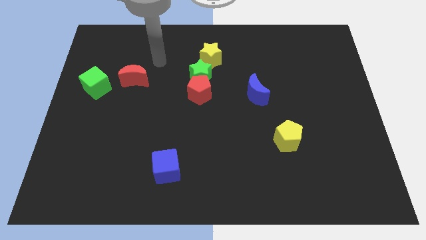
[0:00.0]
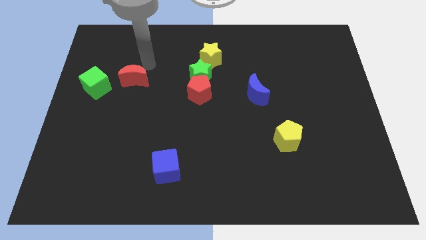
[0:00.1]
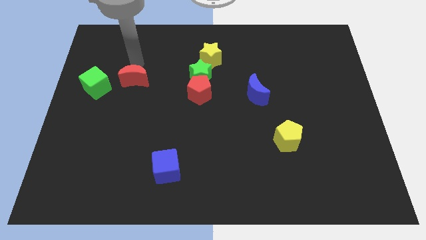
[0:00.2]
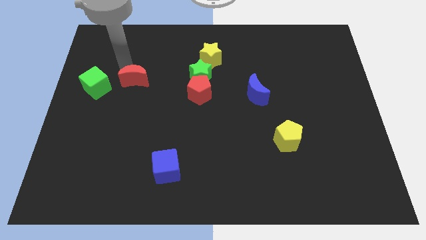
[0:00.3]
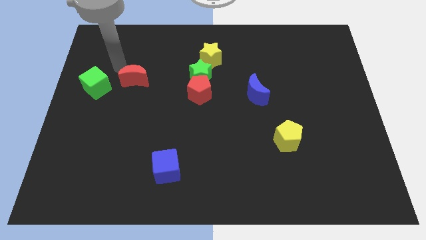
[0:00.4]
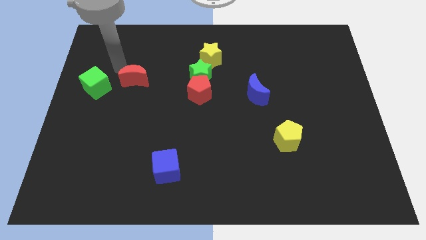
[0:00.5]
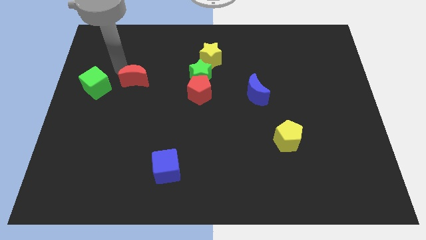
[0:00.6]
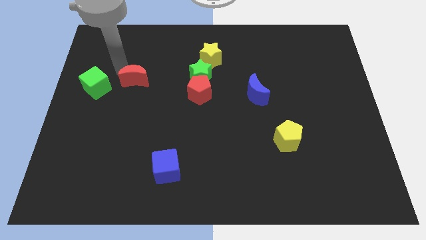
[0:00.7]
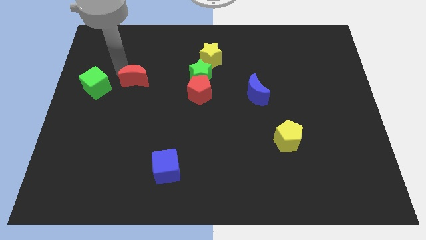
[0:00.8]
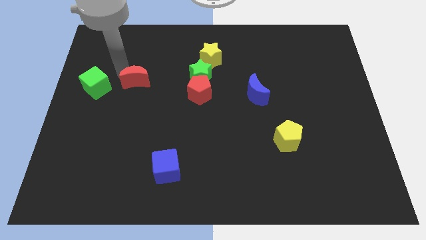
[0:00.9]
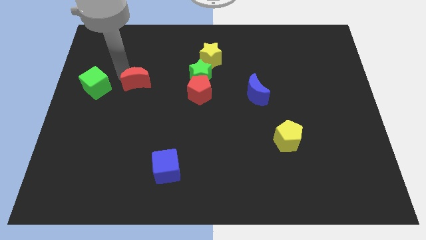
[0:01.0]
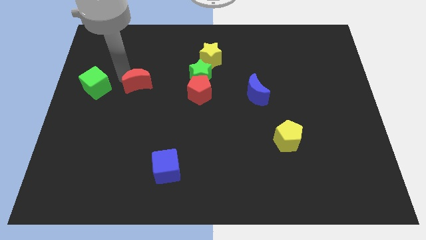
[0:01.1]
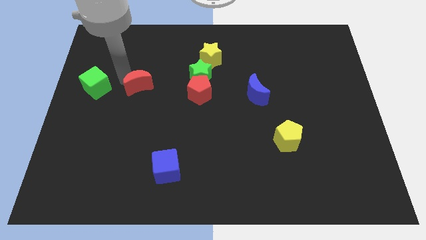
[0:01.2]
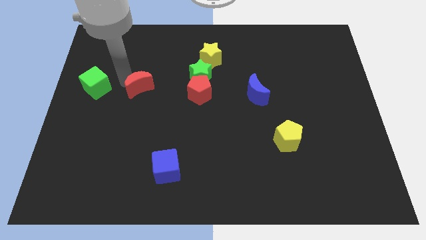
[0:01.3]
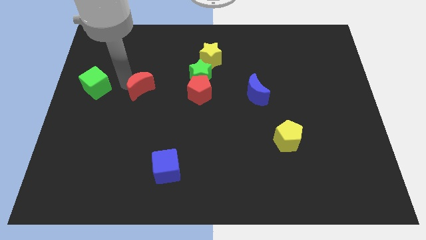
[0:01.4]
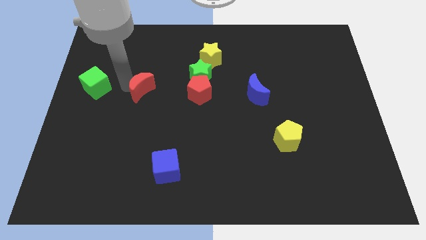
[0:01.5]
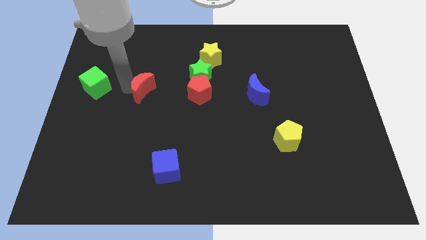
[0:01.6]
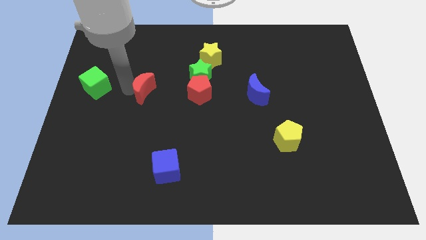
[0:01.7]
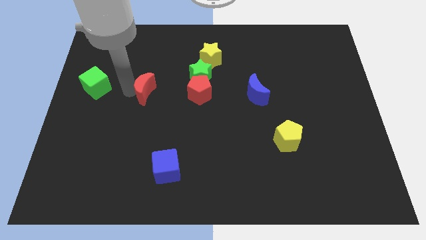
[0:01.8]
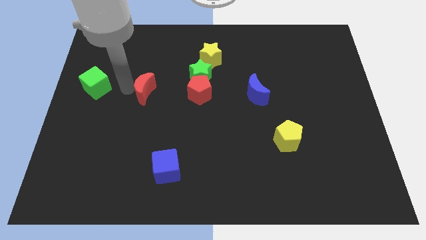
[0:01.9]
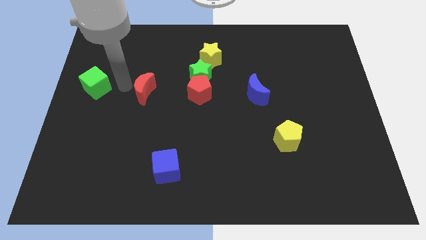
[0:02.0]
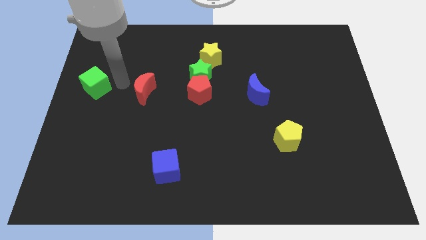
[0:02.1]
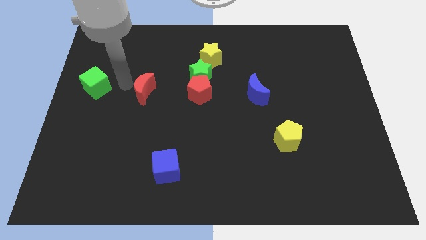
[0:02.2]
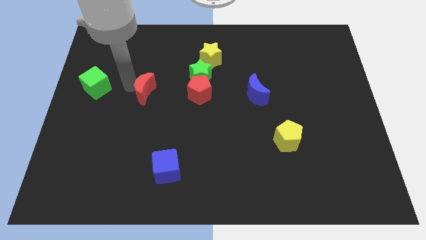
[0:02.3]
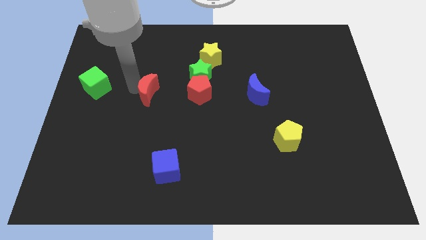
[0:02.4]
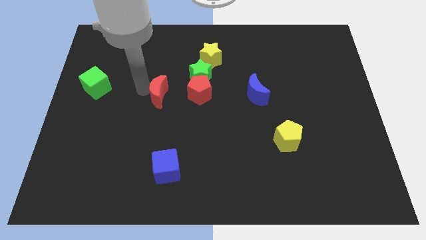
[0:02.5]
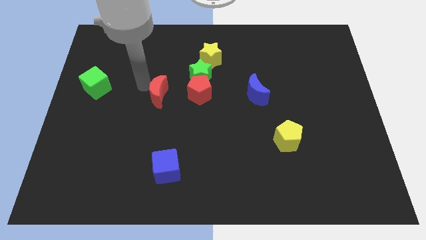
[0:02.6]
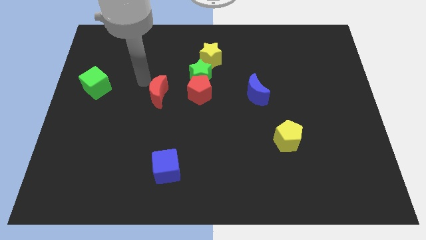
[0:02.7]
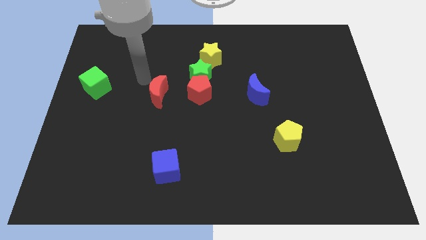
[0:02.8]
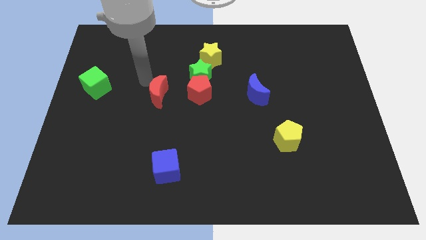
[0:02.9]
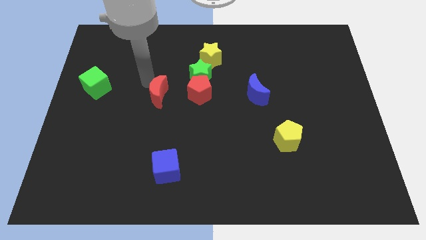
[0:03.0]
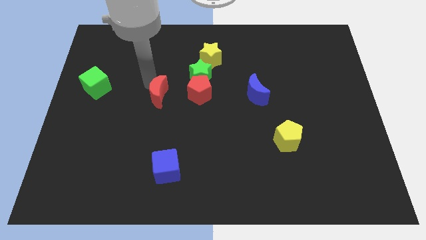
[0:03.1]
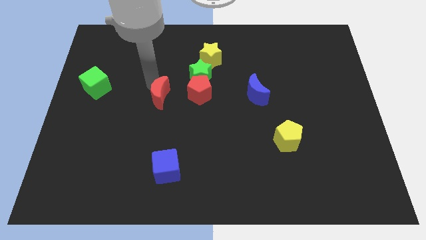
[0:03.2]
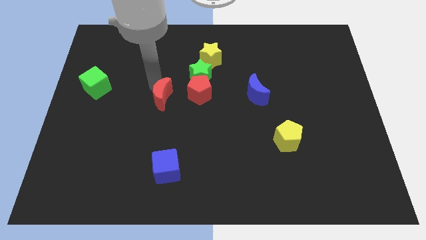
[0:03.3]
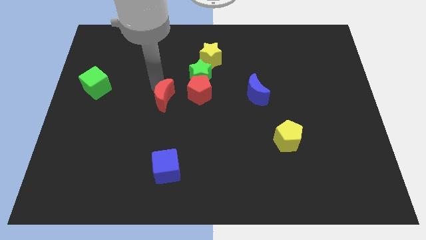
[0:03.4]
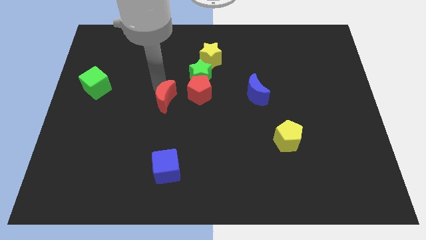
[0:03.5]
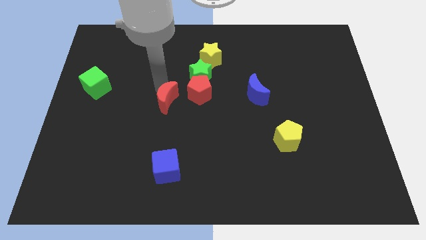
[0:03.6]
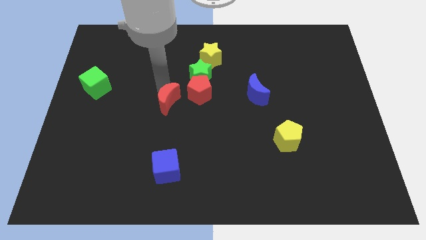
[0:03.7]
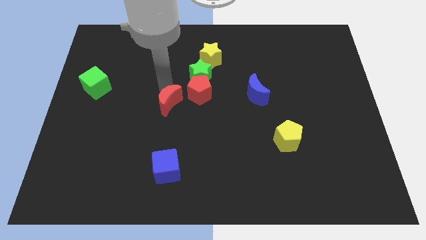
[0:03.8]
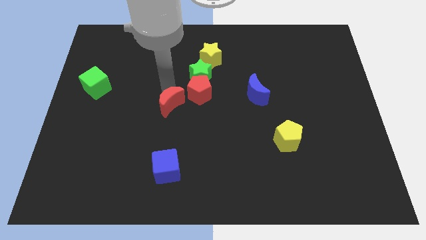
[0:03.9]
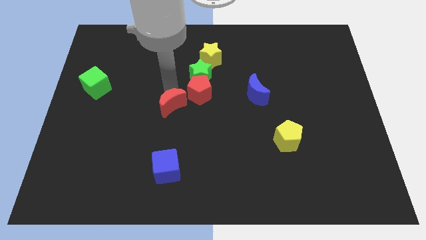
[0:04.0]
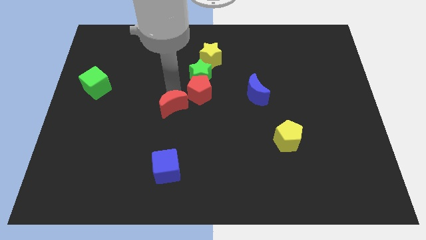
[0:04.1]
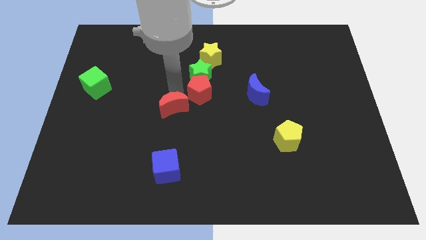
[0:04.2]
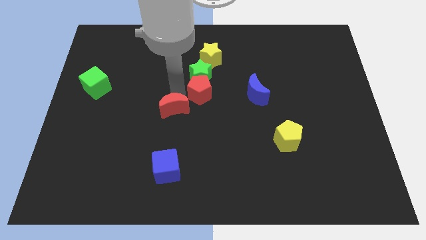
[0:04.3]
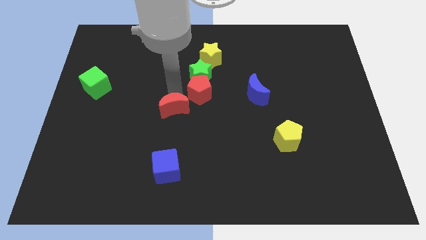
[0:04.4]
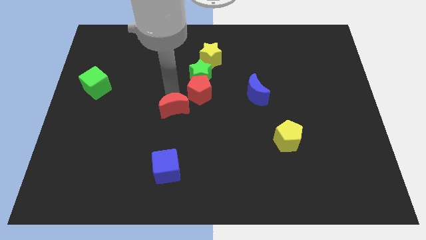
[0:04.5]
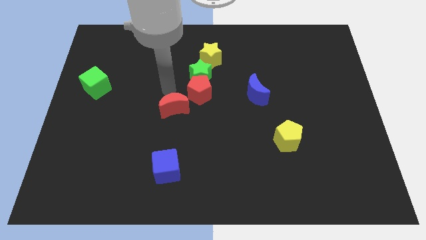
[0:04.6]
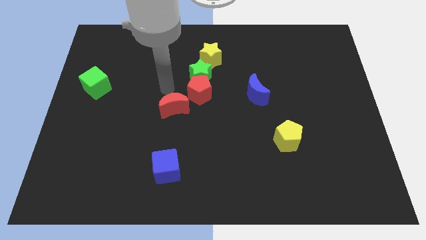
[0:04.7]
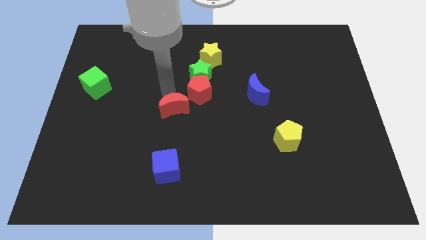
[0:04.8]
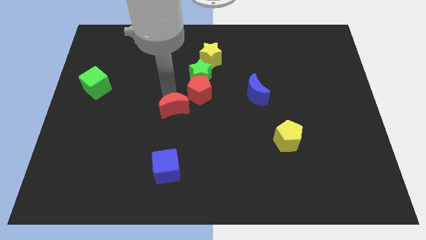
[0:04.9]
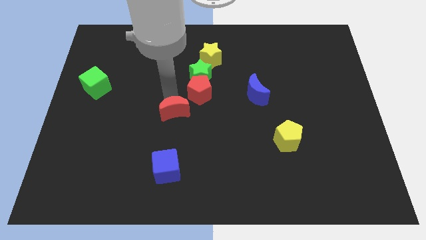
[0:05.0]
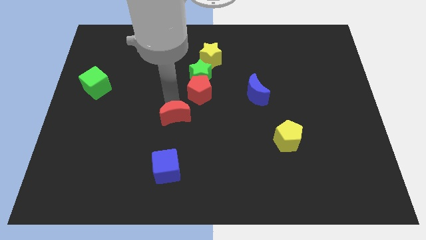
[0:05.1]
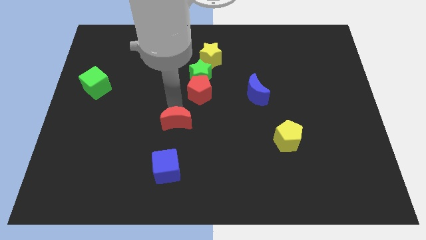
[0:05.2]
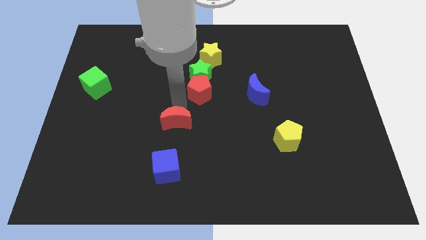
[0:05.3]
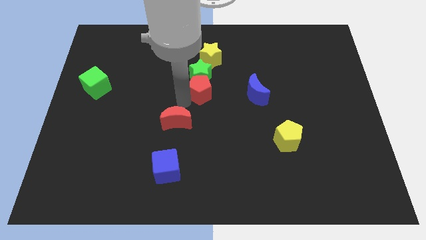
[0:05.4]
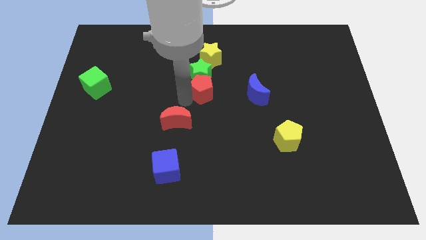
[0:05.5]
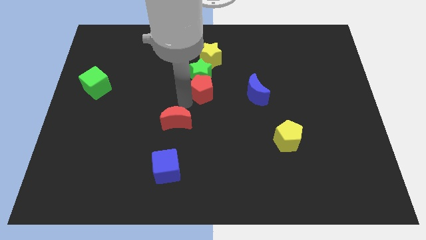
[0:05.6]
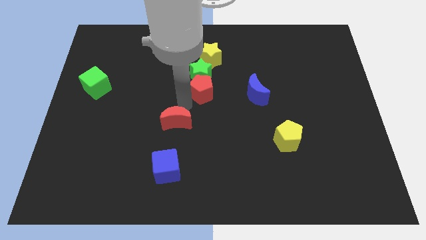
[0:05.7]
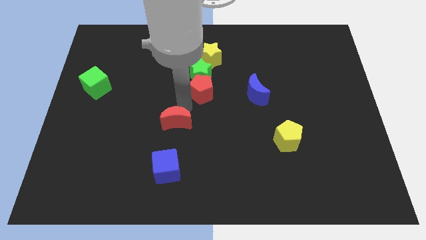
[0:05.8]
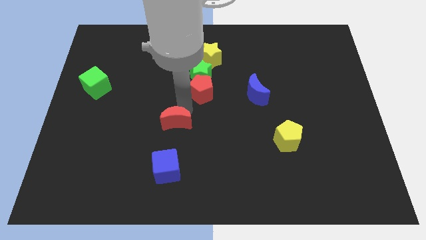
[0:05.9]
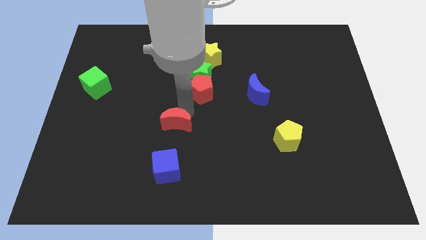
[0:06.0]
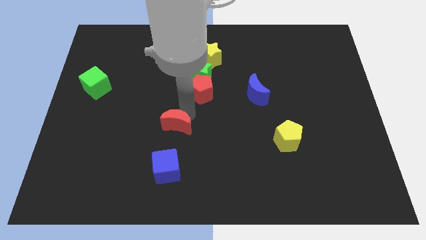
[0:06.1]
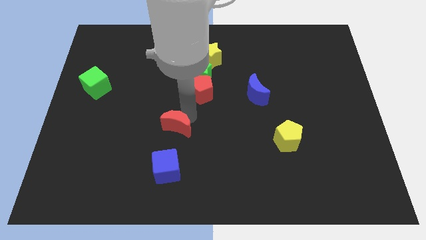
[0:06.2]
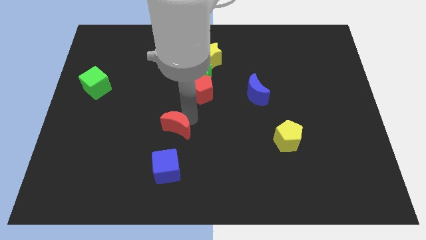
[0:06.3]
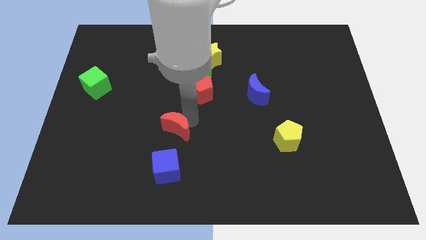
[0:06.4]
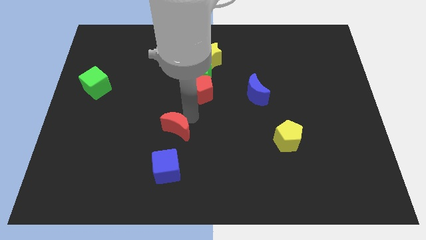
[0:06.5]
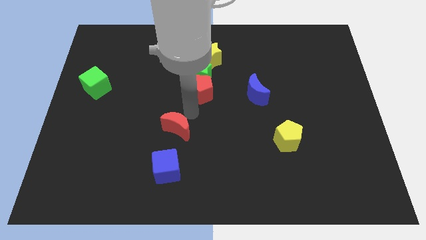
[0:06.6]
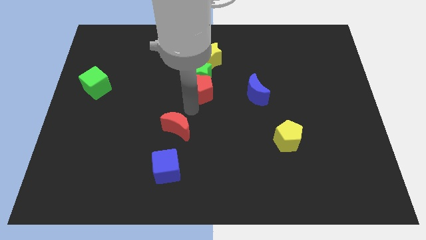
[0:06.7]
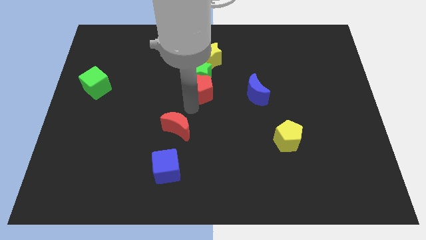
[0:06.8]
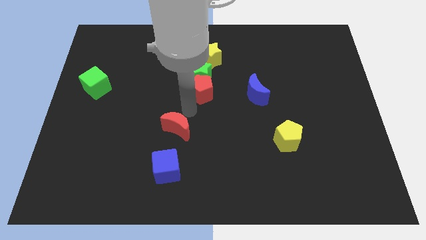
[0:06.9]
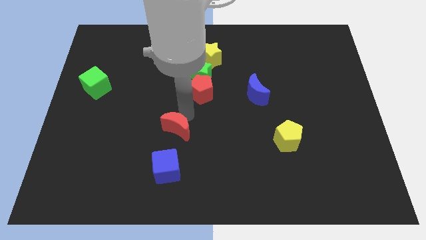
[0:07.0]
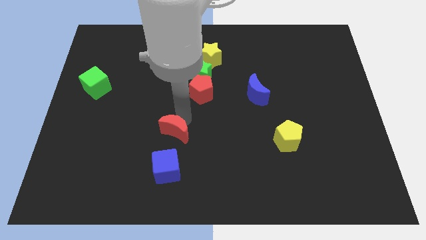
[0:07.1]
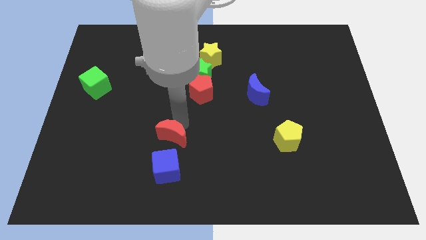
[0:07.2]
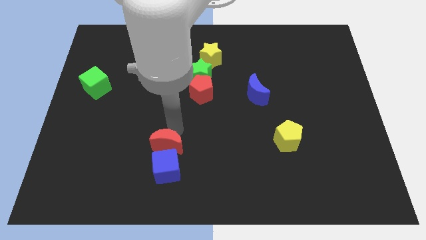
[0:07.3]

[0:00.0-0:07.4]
slide the red moon close to the blue cube
